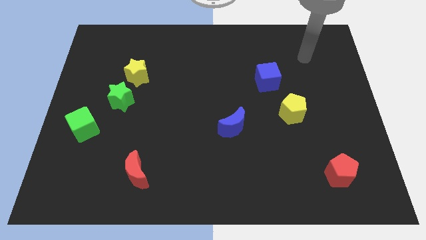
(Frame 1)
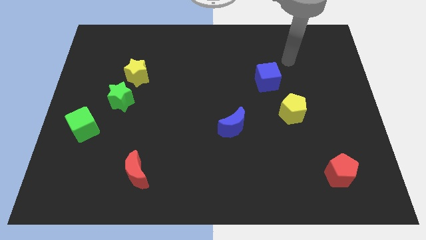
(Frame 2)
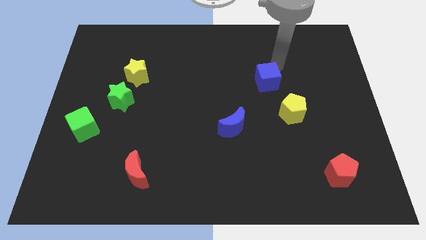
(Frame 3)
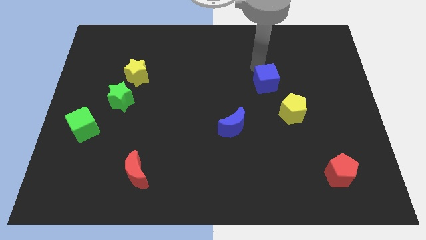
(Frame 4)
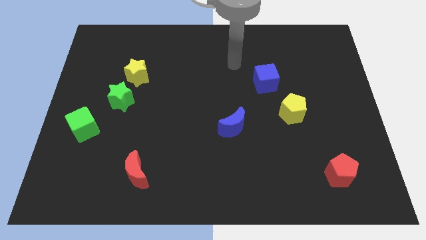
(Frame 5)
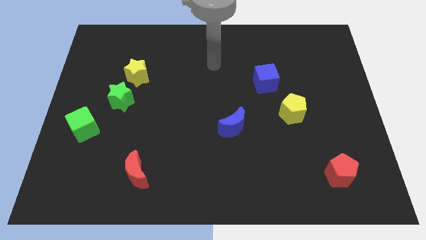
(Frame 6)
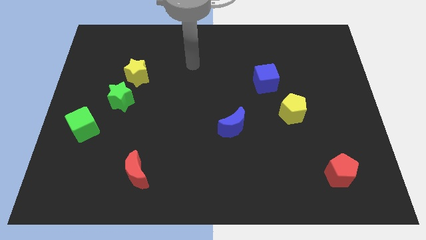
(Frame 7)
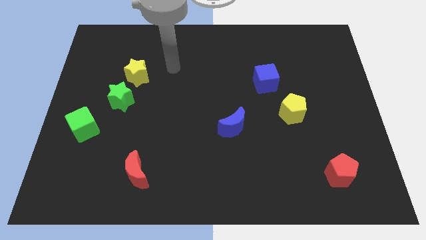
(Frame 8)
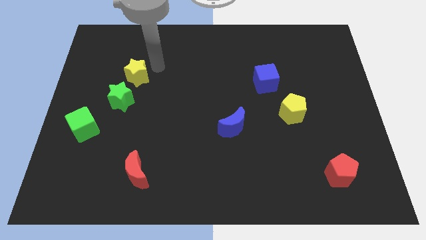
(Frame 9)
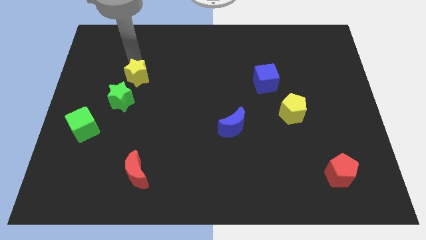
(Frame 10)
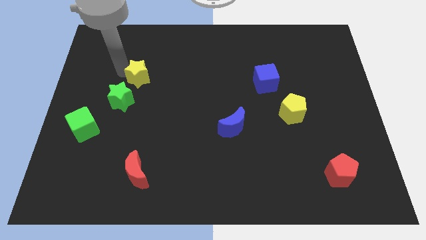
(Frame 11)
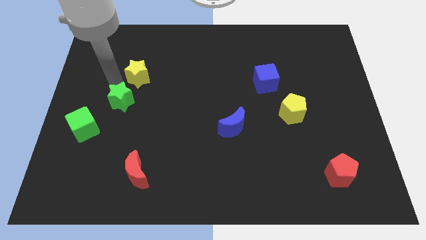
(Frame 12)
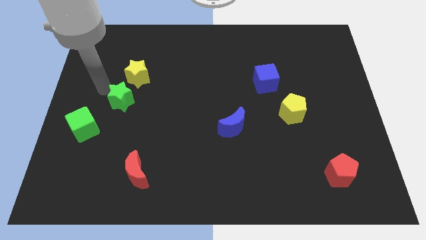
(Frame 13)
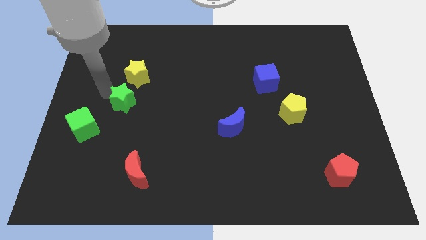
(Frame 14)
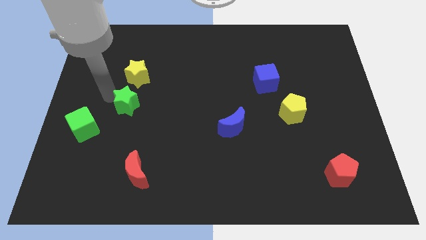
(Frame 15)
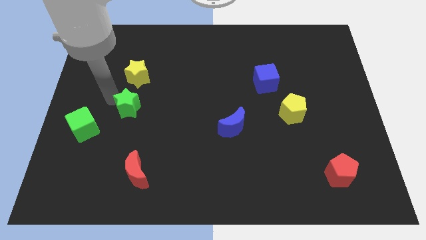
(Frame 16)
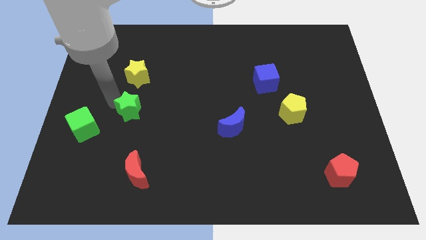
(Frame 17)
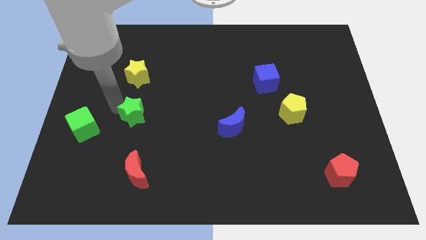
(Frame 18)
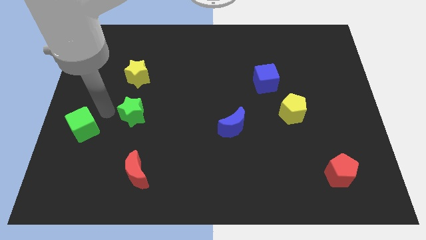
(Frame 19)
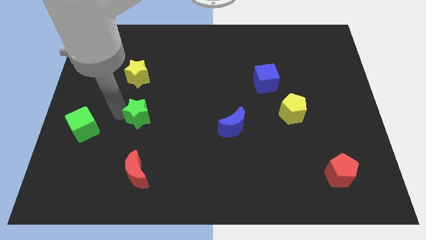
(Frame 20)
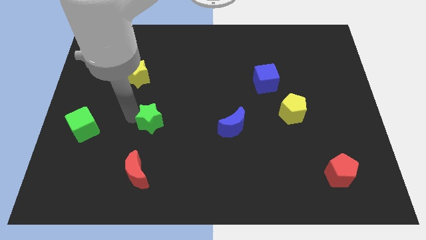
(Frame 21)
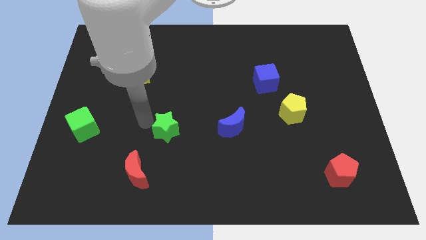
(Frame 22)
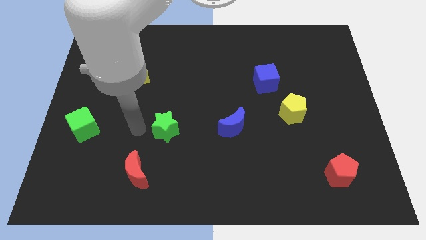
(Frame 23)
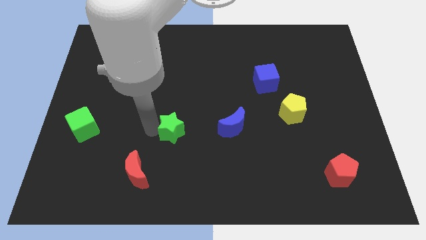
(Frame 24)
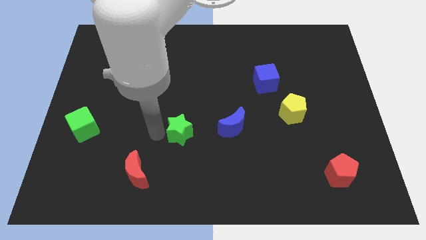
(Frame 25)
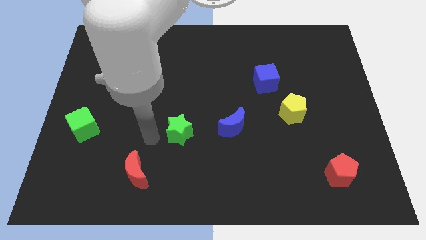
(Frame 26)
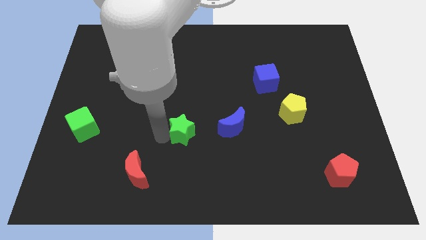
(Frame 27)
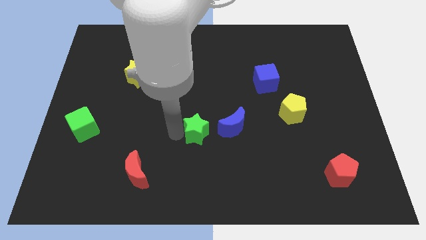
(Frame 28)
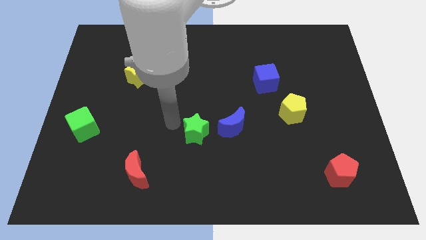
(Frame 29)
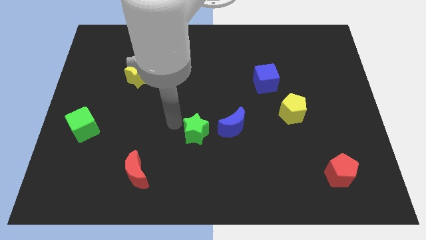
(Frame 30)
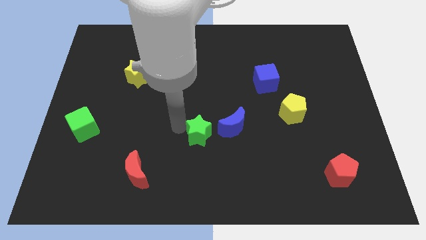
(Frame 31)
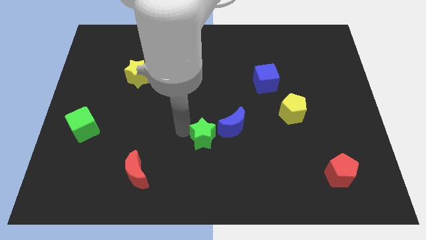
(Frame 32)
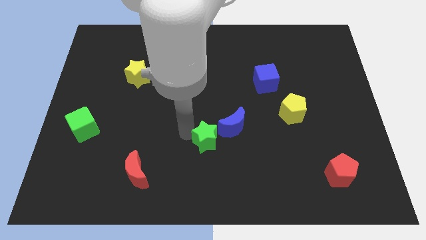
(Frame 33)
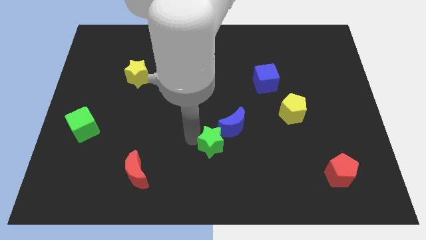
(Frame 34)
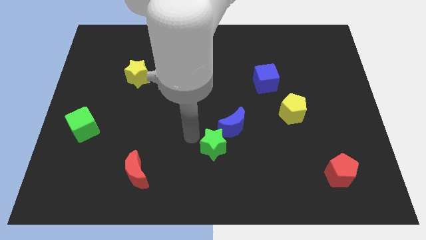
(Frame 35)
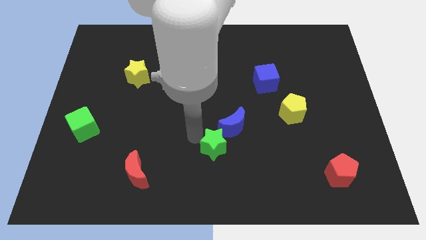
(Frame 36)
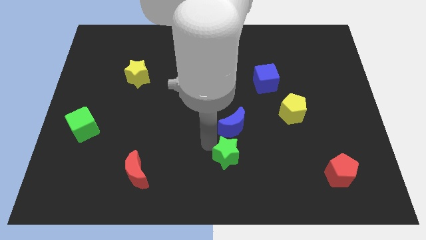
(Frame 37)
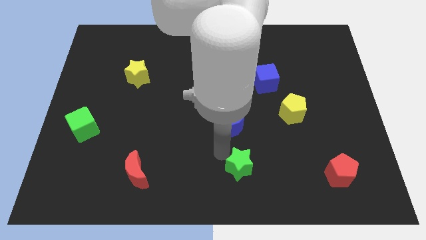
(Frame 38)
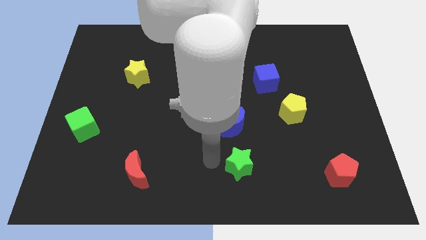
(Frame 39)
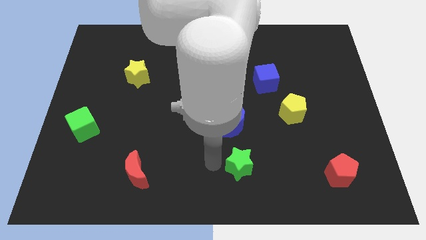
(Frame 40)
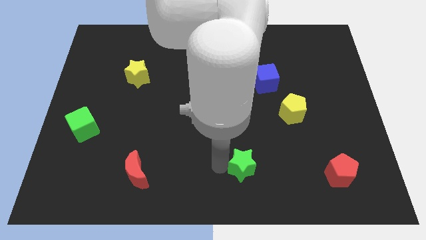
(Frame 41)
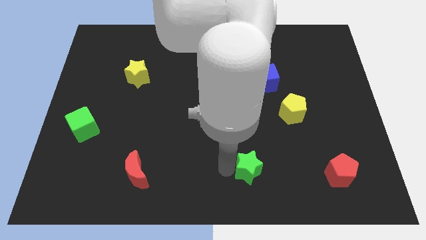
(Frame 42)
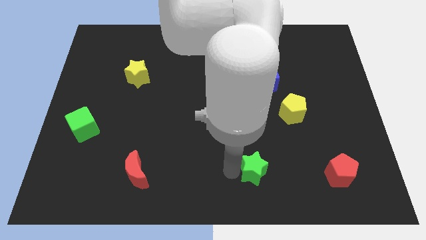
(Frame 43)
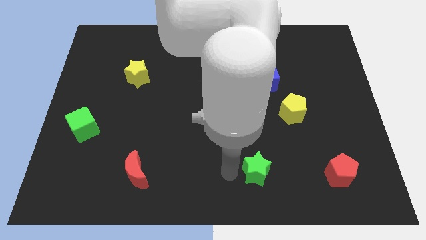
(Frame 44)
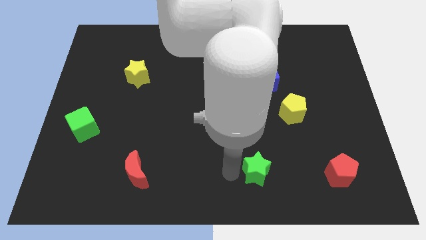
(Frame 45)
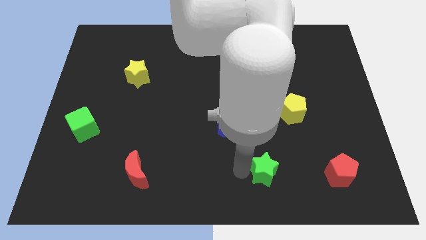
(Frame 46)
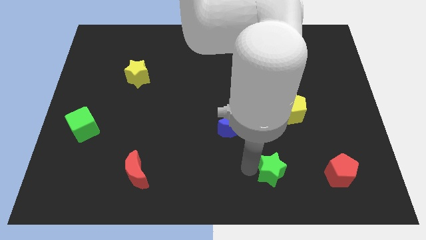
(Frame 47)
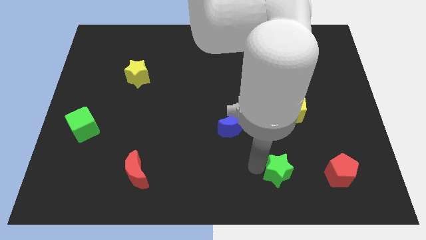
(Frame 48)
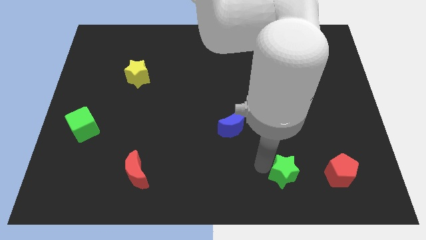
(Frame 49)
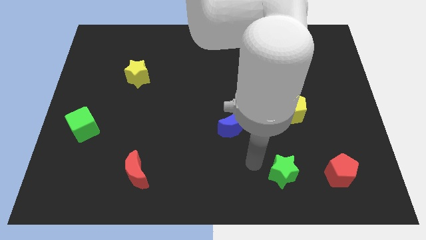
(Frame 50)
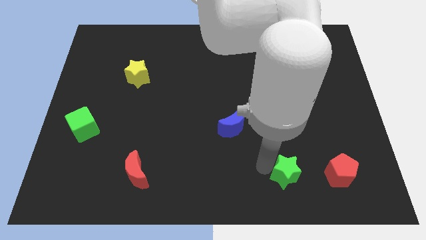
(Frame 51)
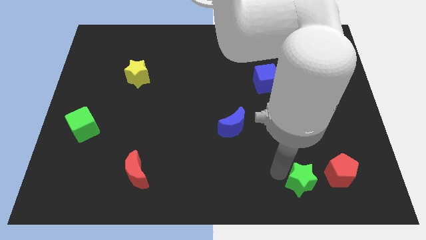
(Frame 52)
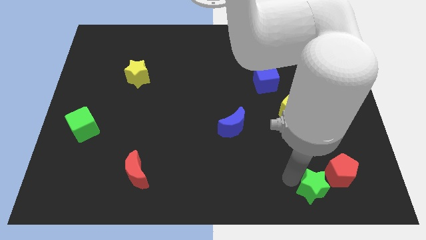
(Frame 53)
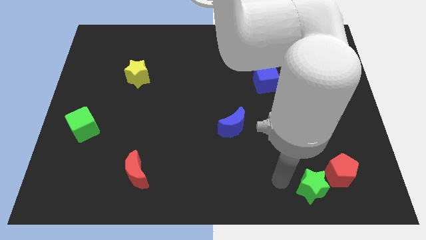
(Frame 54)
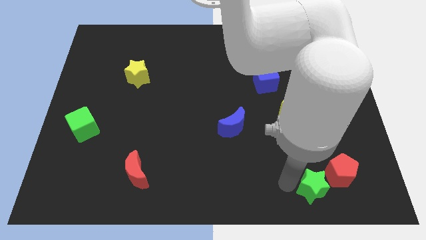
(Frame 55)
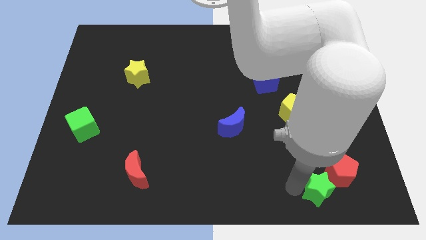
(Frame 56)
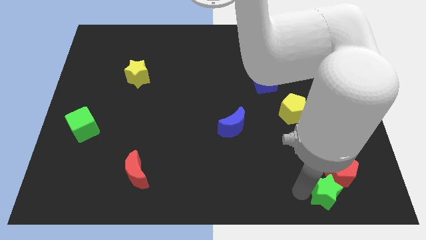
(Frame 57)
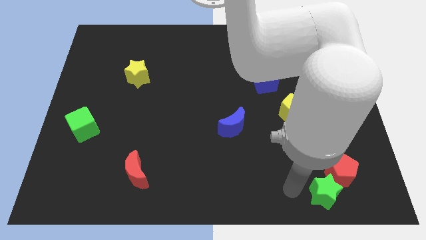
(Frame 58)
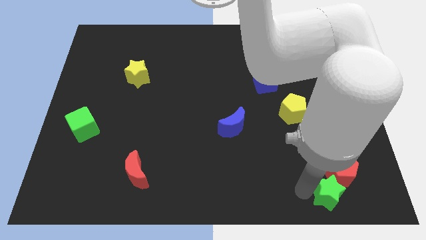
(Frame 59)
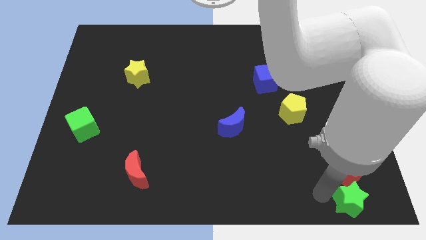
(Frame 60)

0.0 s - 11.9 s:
put the green star to the lower right corner

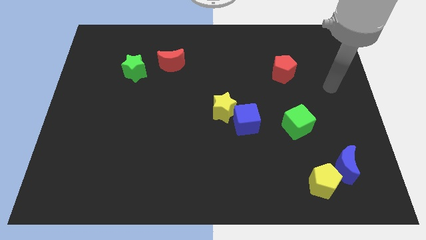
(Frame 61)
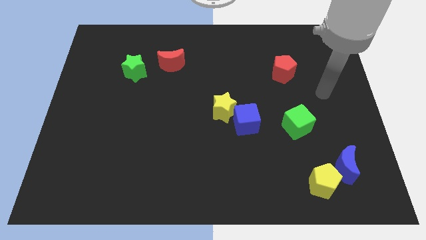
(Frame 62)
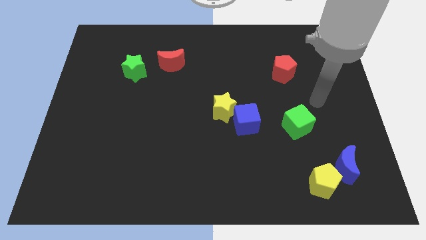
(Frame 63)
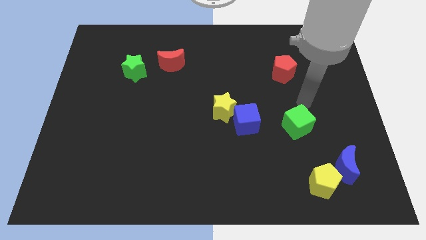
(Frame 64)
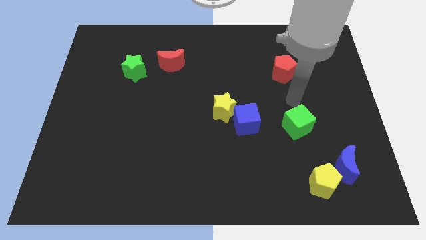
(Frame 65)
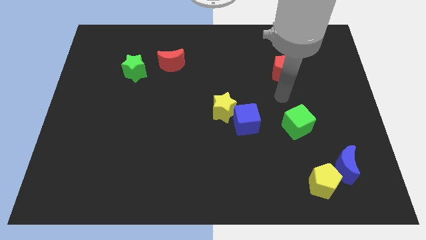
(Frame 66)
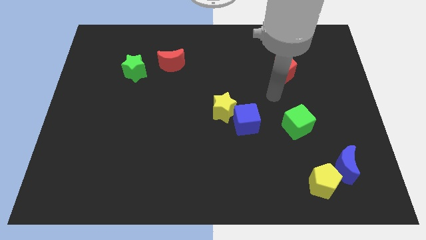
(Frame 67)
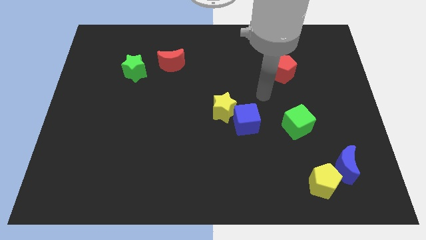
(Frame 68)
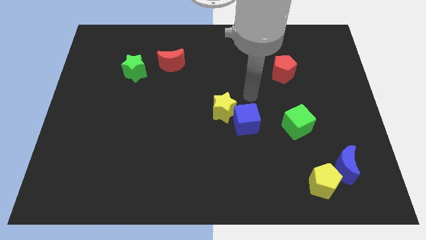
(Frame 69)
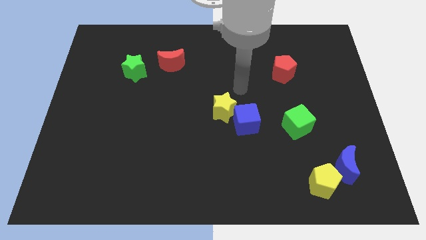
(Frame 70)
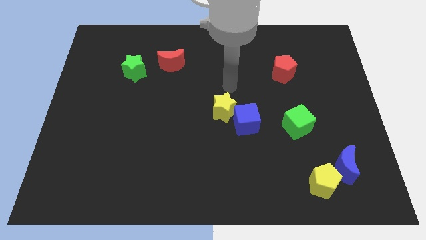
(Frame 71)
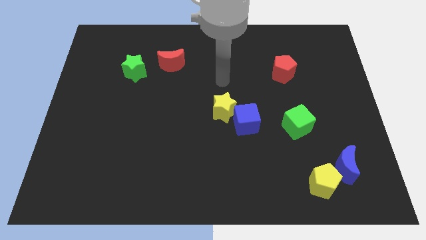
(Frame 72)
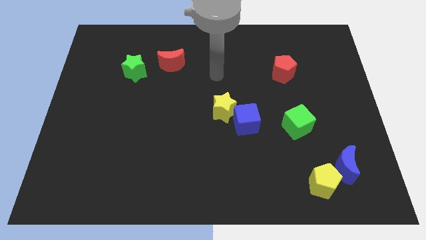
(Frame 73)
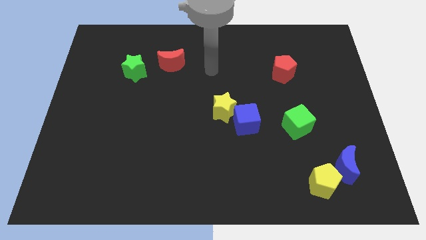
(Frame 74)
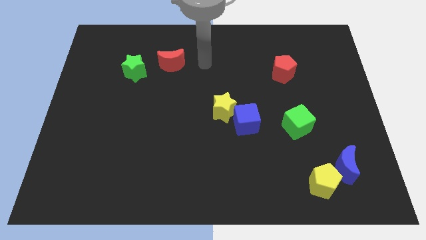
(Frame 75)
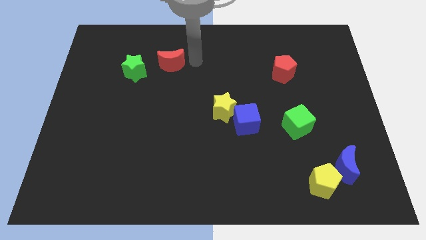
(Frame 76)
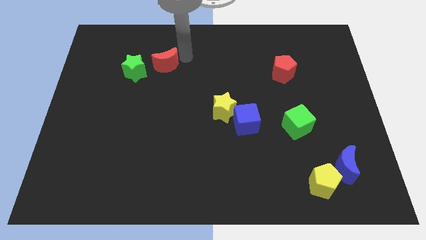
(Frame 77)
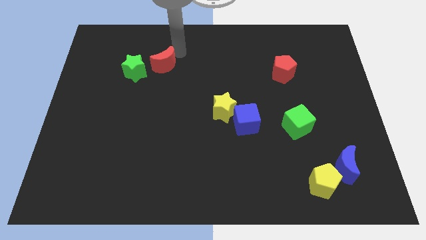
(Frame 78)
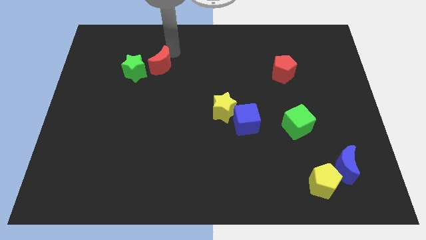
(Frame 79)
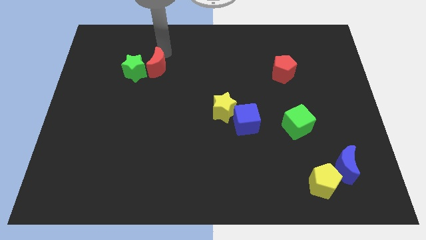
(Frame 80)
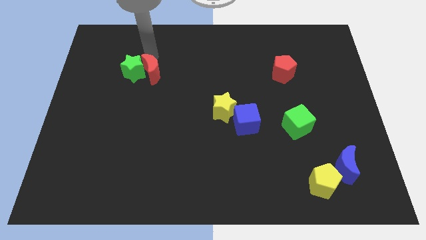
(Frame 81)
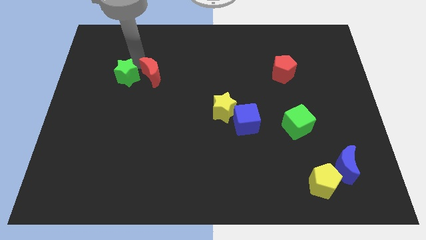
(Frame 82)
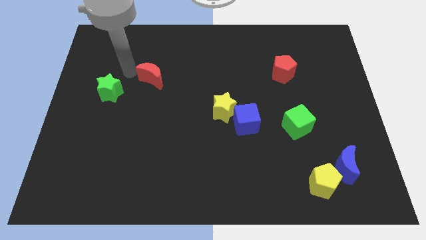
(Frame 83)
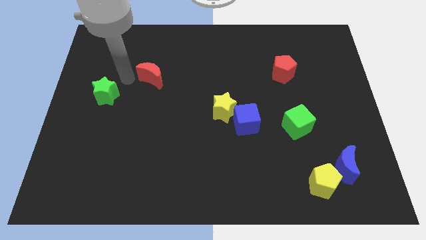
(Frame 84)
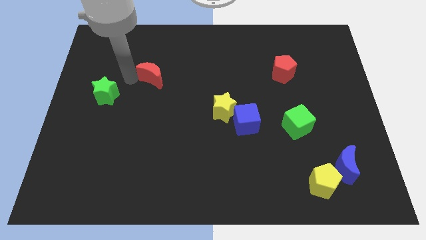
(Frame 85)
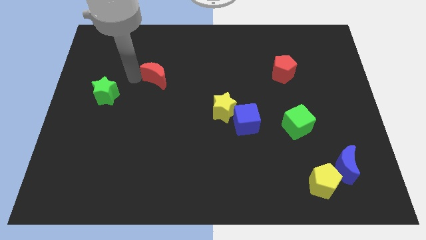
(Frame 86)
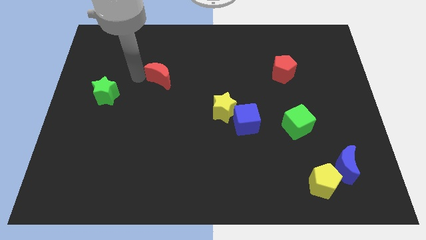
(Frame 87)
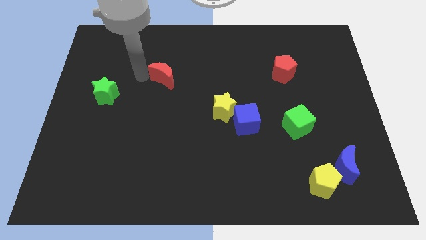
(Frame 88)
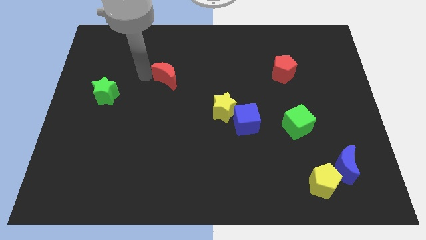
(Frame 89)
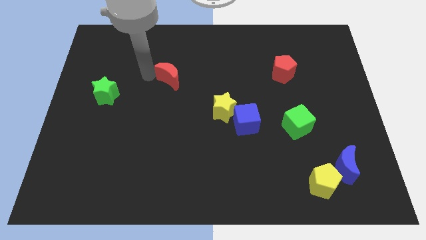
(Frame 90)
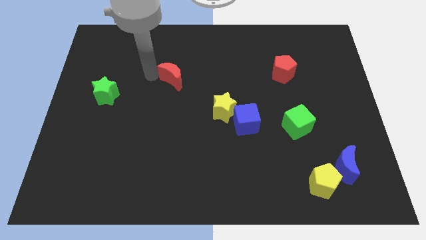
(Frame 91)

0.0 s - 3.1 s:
move the red moon to the center
